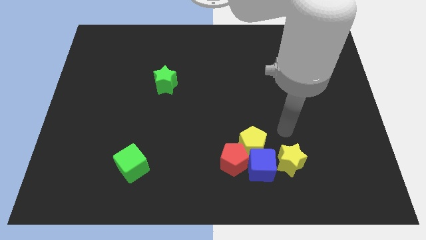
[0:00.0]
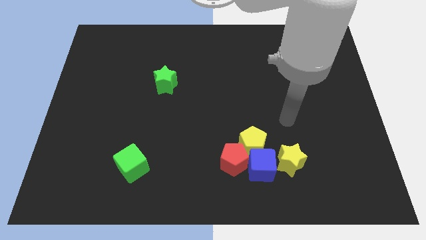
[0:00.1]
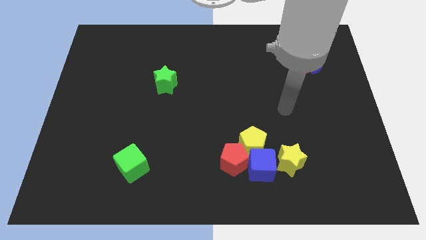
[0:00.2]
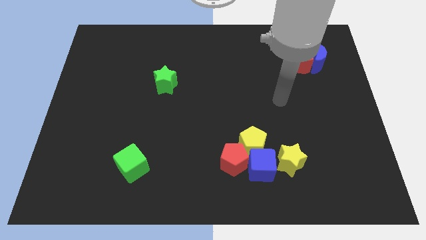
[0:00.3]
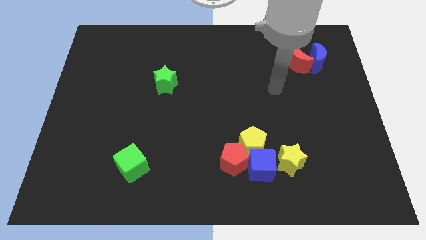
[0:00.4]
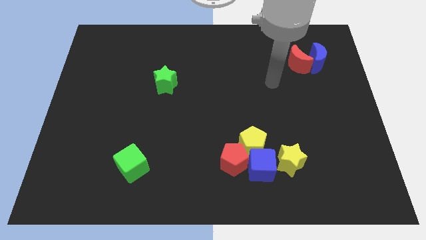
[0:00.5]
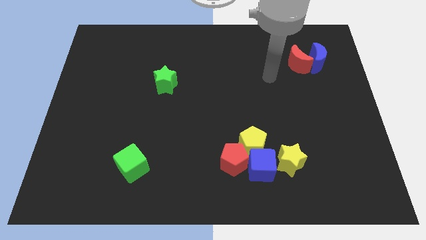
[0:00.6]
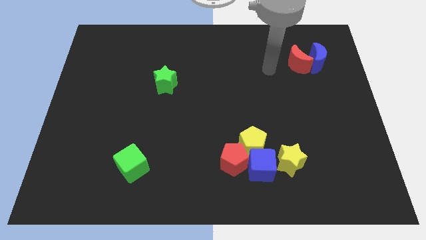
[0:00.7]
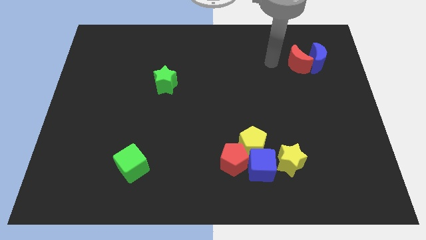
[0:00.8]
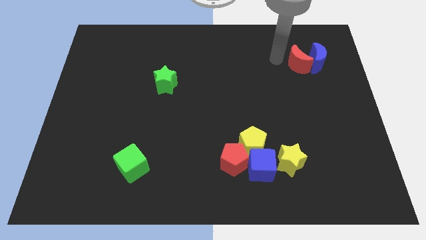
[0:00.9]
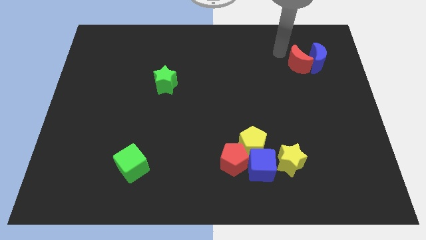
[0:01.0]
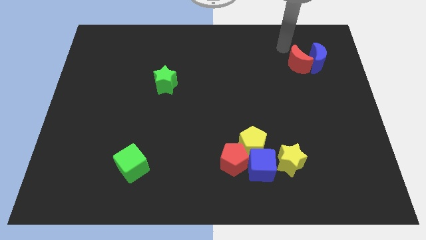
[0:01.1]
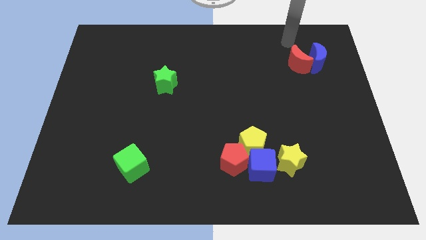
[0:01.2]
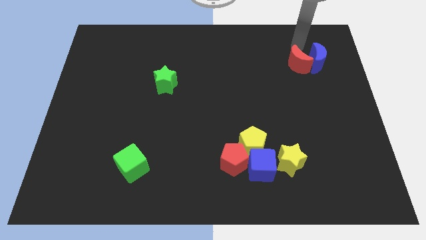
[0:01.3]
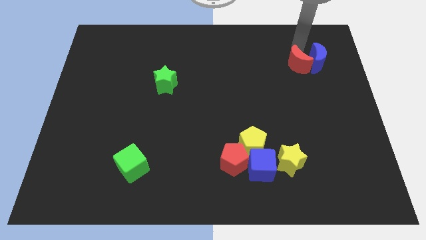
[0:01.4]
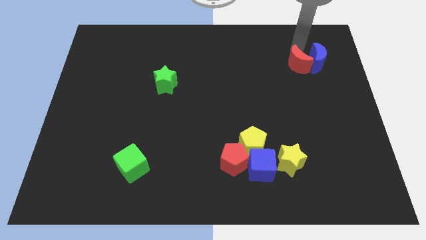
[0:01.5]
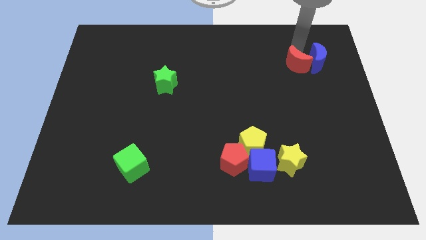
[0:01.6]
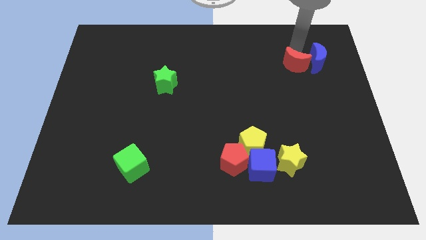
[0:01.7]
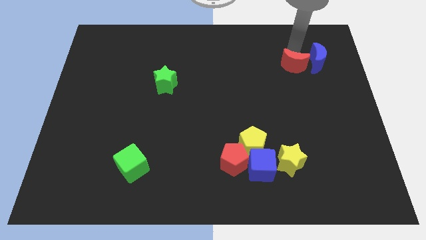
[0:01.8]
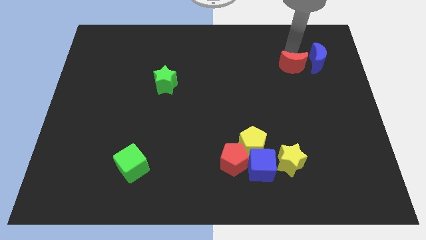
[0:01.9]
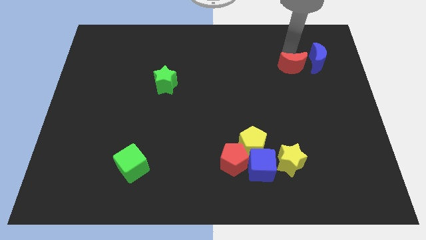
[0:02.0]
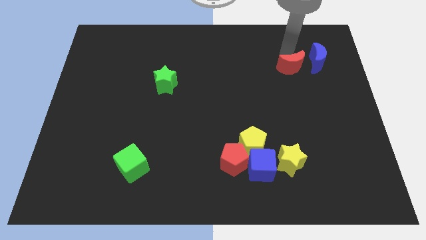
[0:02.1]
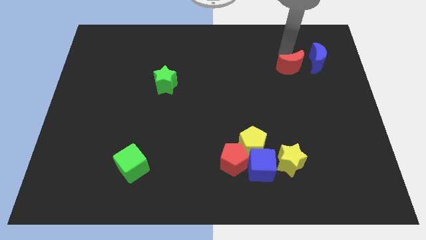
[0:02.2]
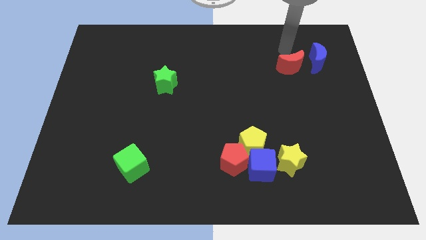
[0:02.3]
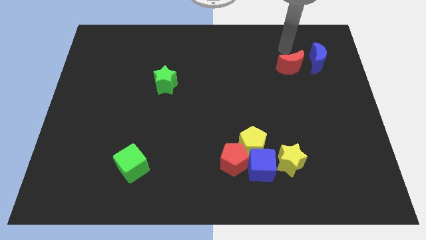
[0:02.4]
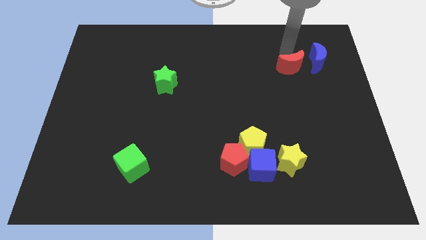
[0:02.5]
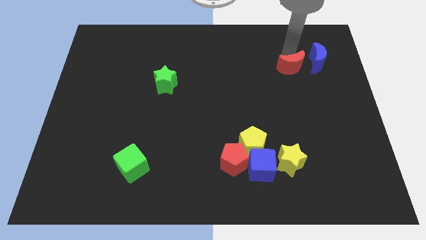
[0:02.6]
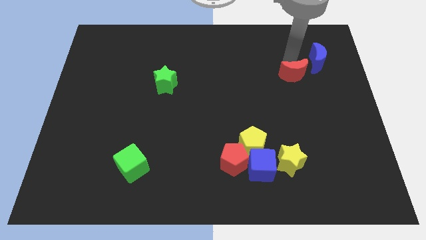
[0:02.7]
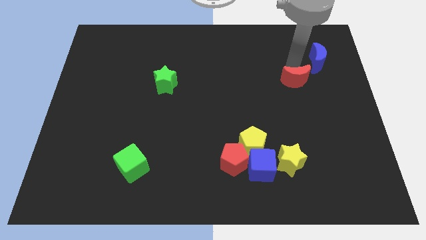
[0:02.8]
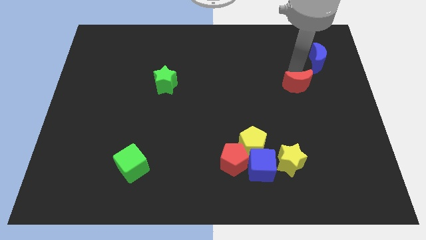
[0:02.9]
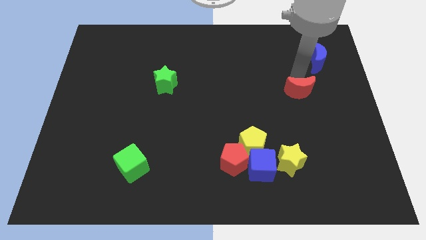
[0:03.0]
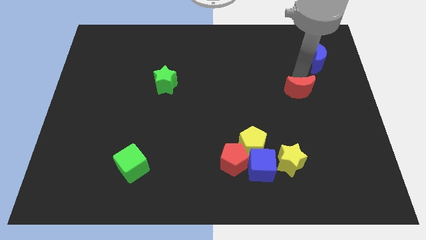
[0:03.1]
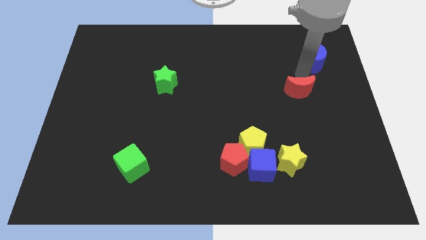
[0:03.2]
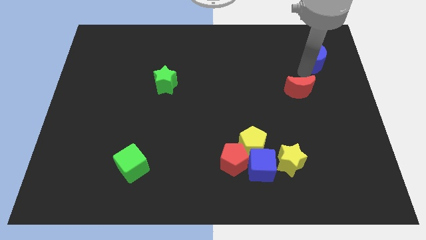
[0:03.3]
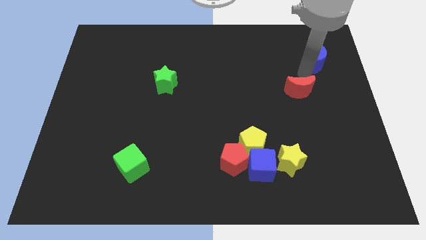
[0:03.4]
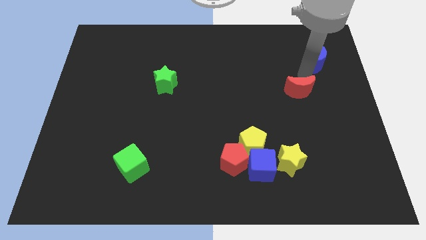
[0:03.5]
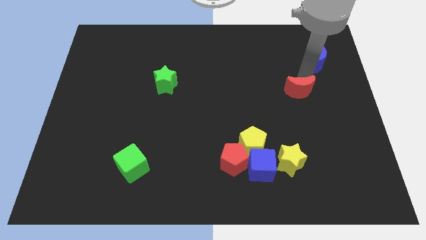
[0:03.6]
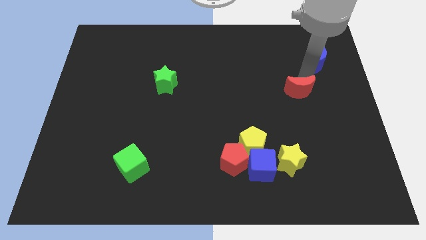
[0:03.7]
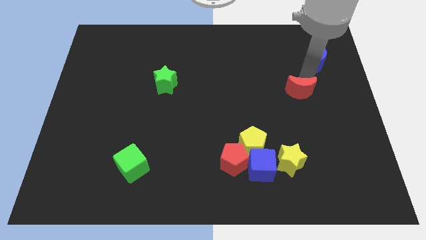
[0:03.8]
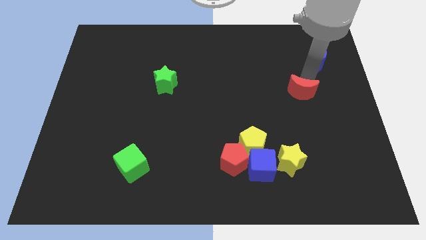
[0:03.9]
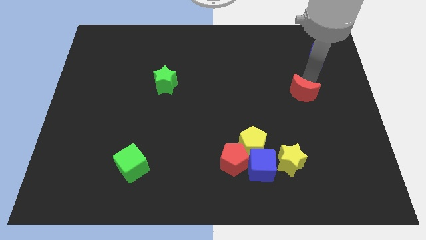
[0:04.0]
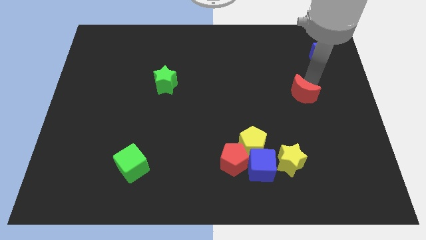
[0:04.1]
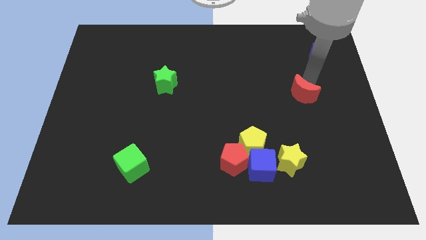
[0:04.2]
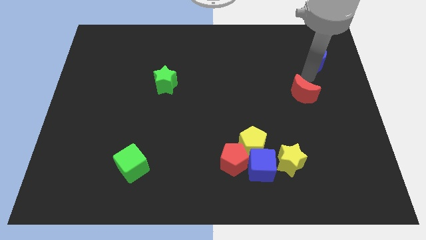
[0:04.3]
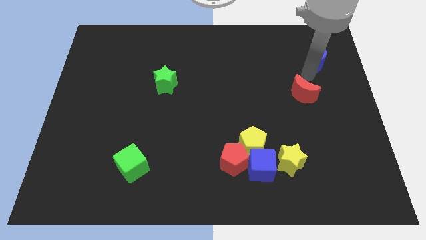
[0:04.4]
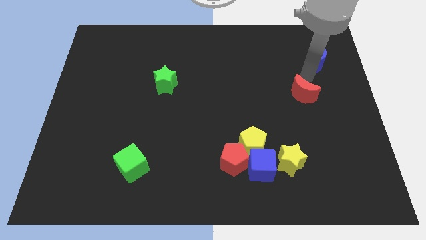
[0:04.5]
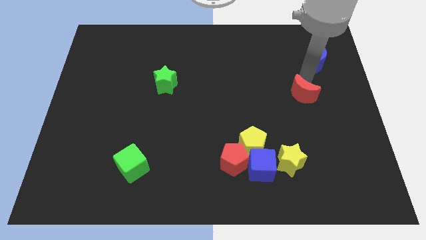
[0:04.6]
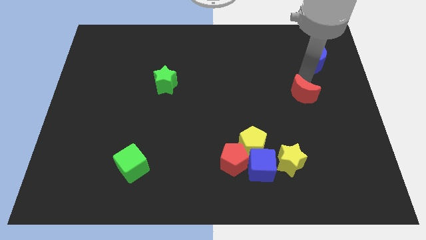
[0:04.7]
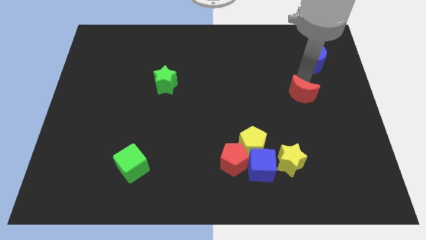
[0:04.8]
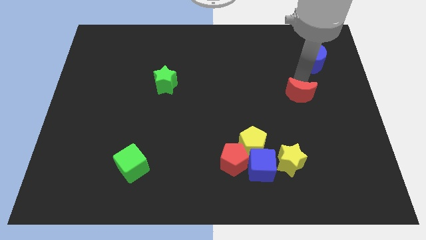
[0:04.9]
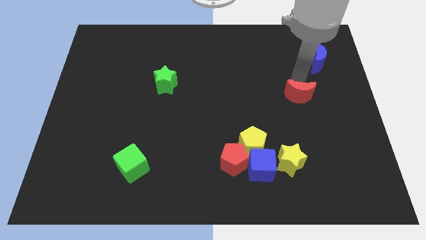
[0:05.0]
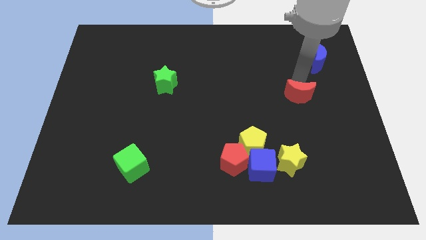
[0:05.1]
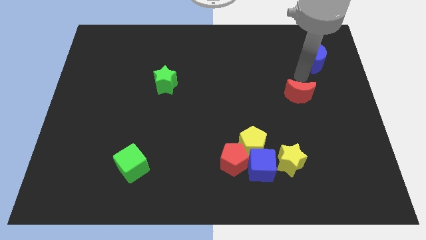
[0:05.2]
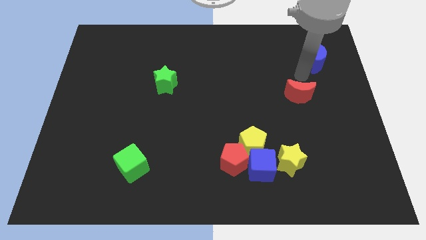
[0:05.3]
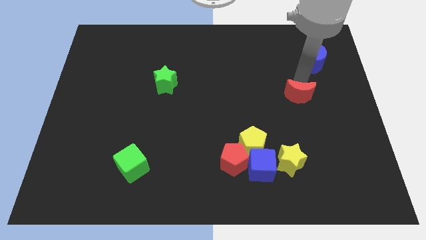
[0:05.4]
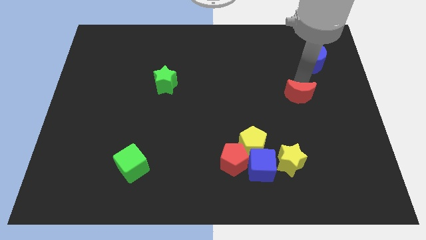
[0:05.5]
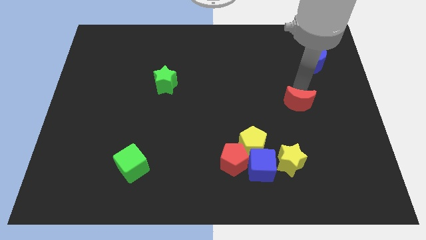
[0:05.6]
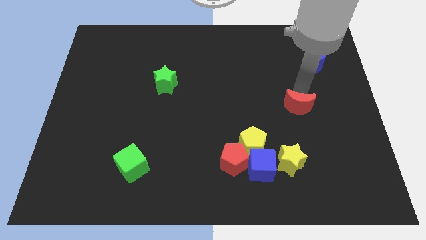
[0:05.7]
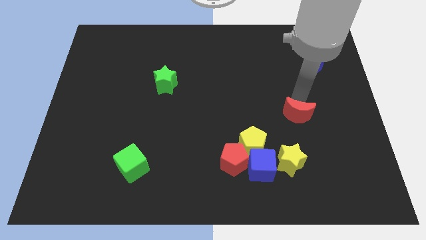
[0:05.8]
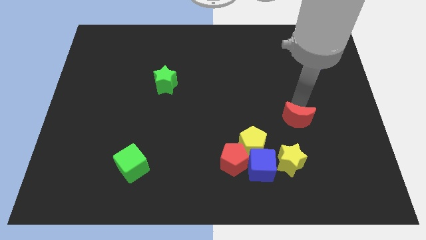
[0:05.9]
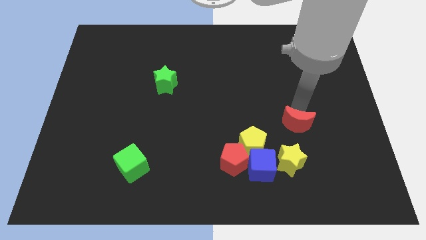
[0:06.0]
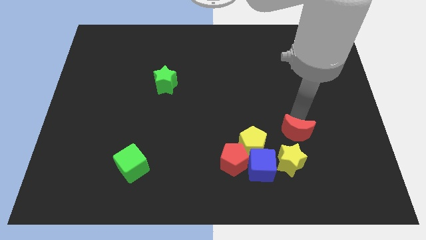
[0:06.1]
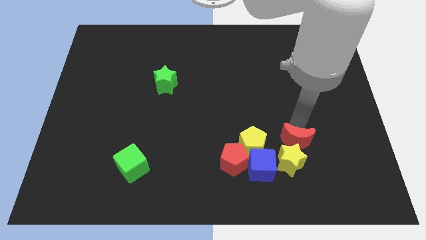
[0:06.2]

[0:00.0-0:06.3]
move the red moon next to the yellow star

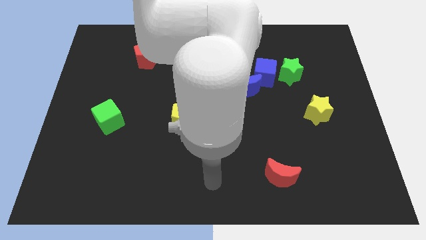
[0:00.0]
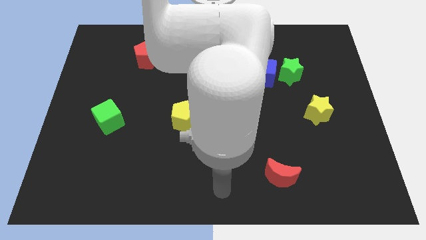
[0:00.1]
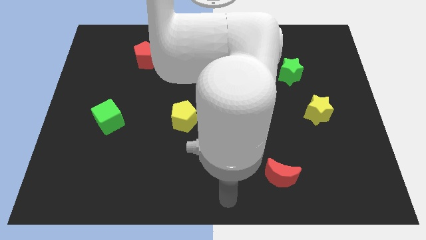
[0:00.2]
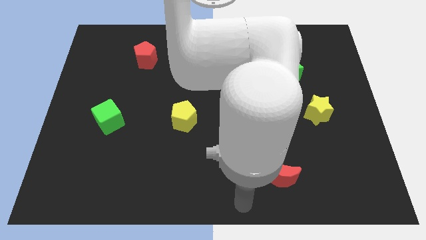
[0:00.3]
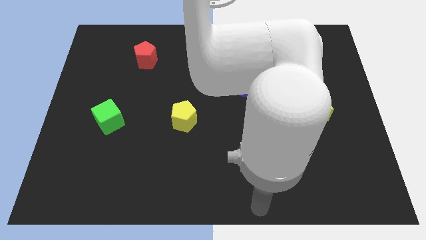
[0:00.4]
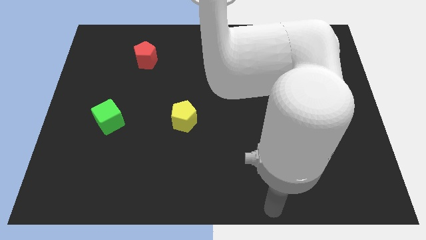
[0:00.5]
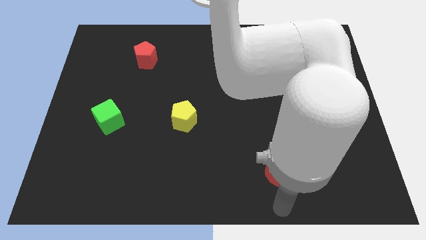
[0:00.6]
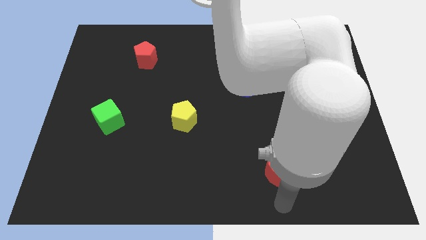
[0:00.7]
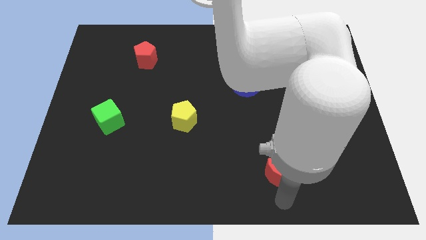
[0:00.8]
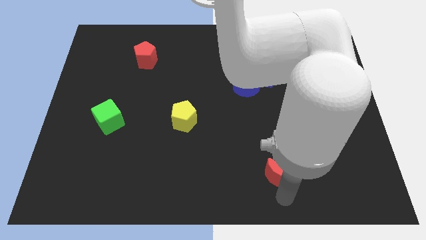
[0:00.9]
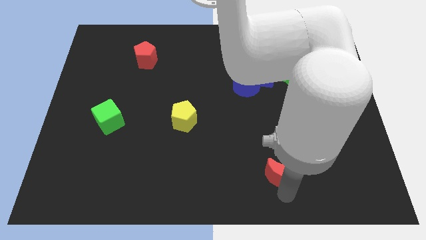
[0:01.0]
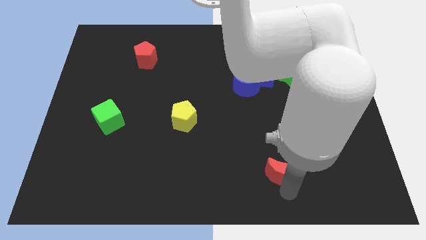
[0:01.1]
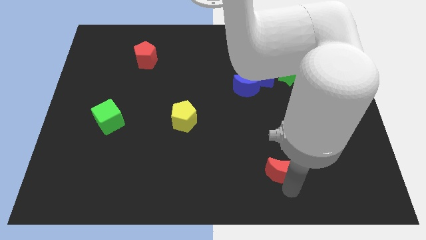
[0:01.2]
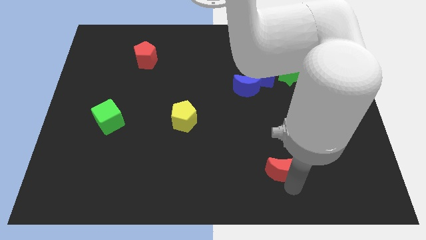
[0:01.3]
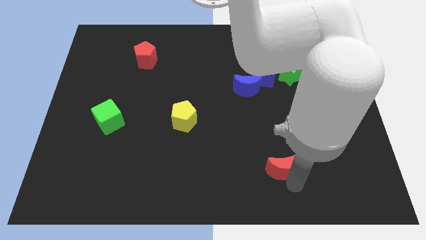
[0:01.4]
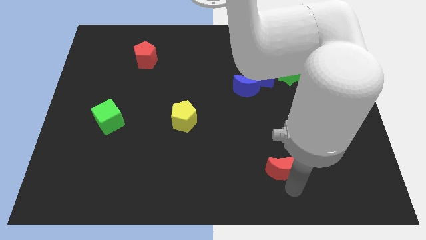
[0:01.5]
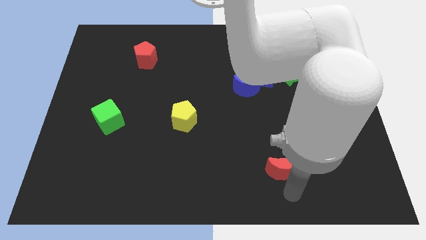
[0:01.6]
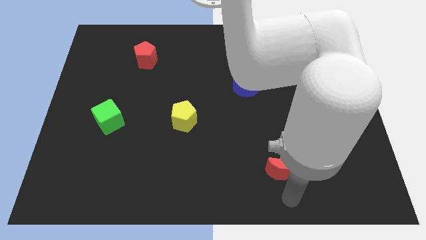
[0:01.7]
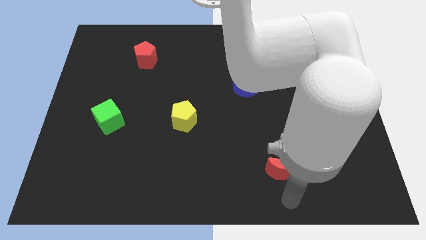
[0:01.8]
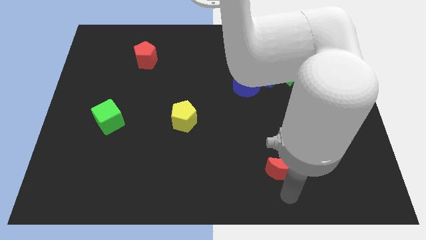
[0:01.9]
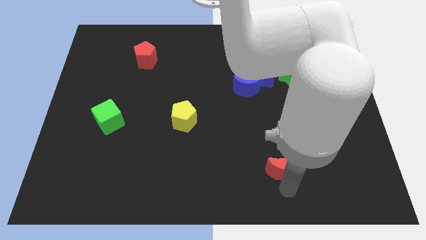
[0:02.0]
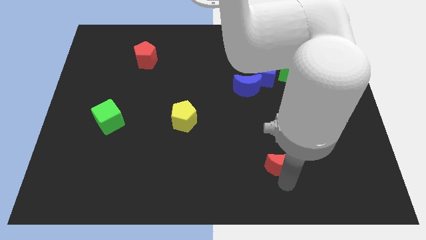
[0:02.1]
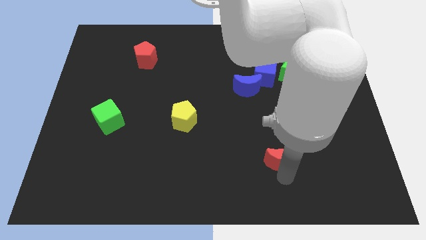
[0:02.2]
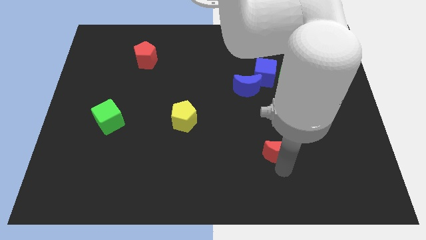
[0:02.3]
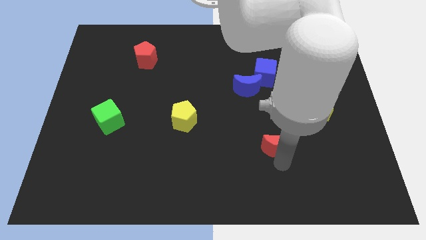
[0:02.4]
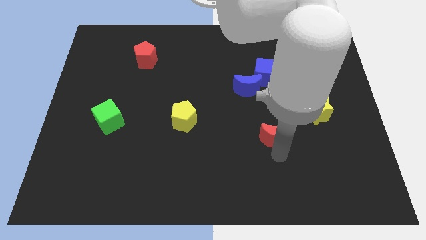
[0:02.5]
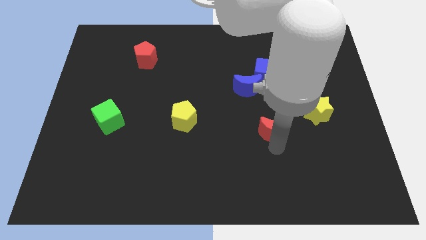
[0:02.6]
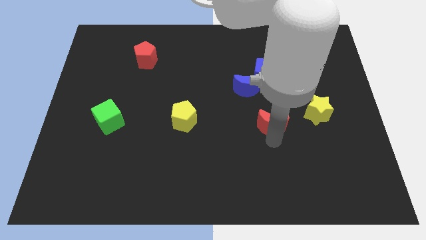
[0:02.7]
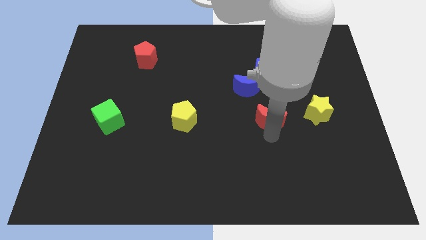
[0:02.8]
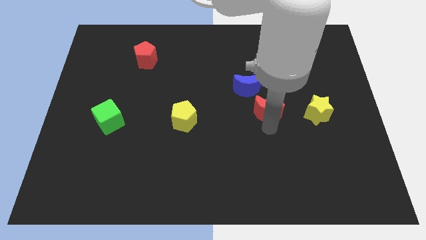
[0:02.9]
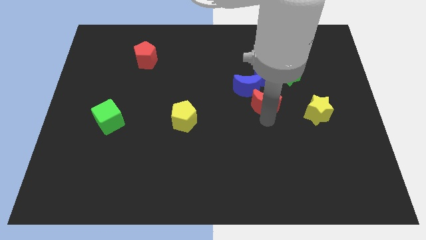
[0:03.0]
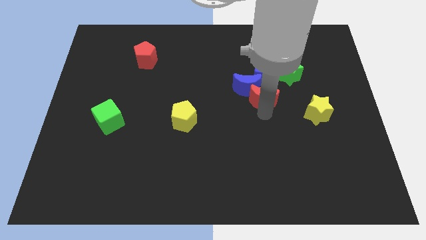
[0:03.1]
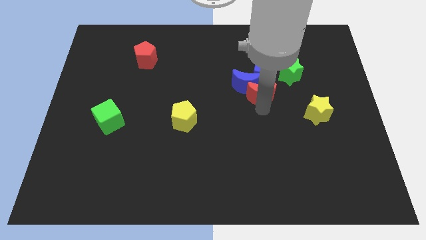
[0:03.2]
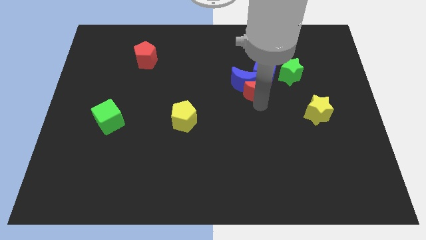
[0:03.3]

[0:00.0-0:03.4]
put the red moon to the blue cube
